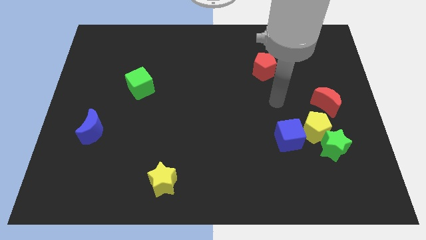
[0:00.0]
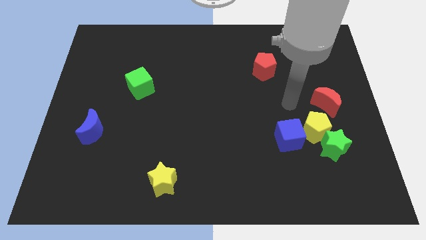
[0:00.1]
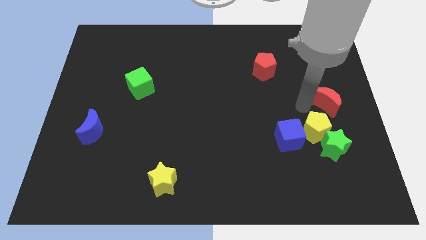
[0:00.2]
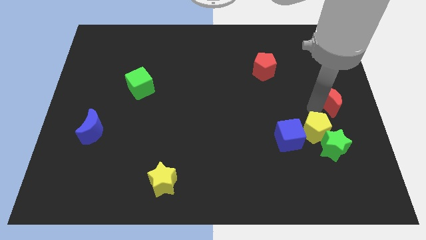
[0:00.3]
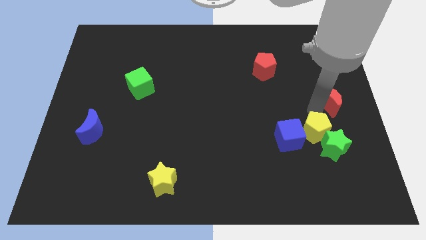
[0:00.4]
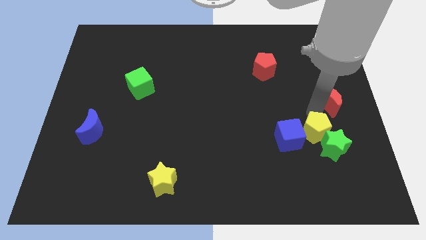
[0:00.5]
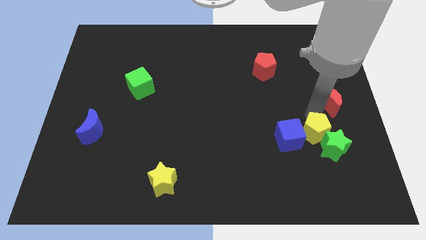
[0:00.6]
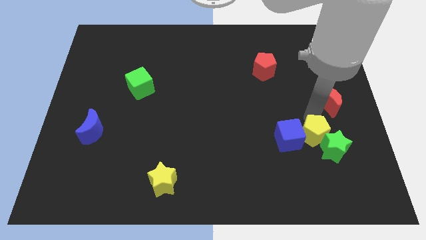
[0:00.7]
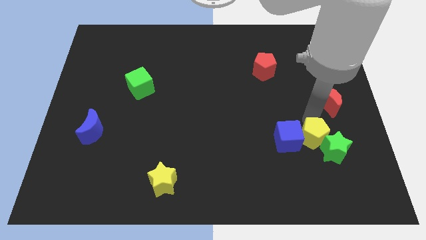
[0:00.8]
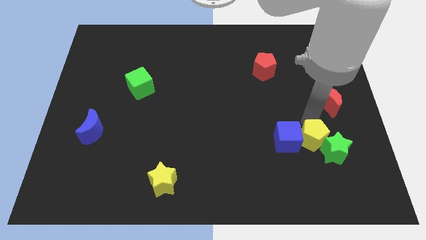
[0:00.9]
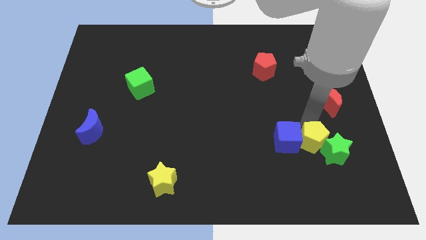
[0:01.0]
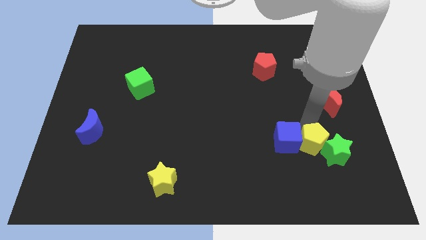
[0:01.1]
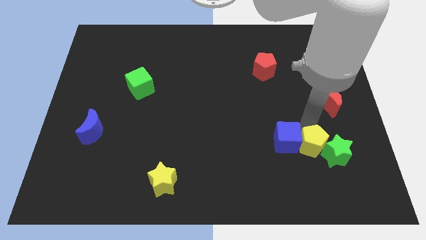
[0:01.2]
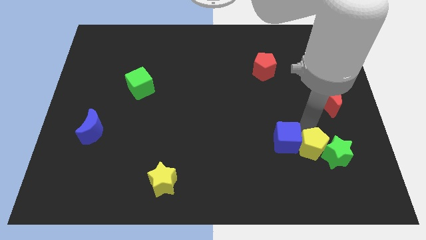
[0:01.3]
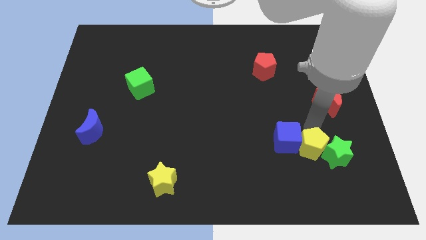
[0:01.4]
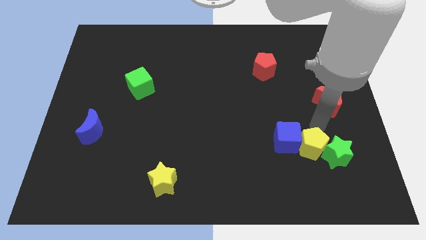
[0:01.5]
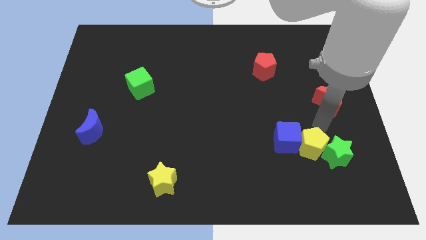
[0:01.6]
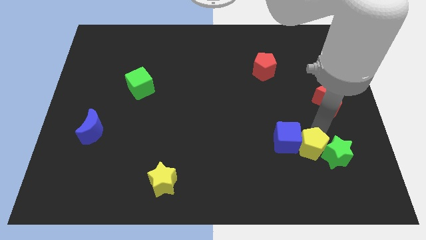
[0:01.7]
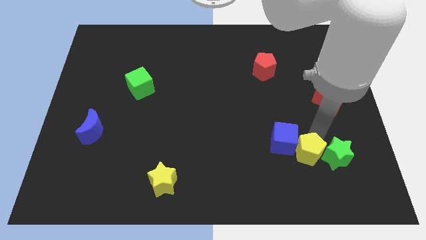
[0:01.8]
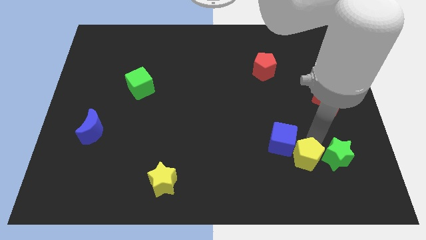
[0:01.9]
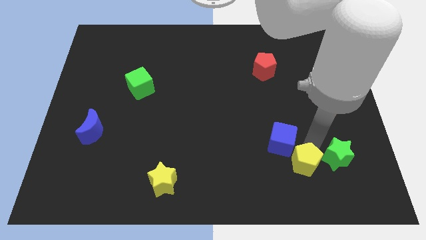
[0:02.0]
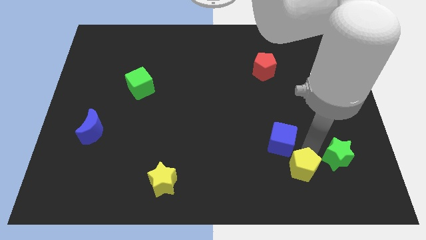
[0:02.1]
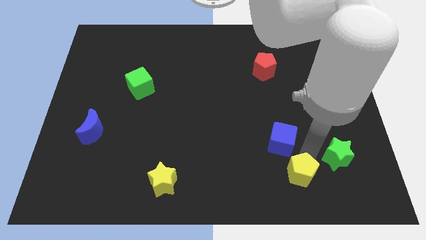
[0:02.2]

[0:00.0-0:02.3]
separate the yellow pentagon from the group

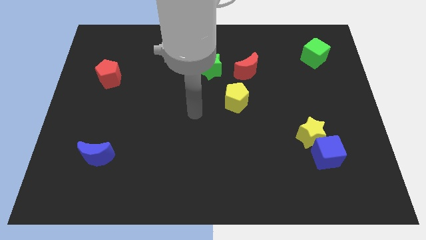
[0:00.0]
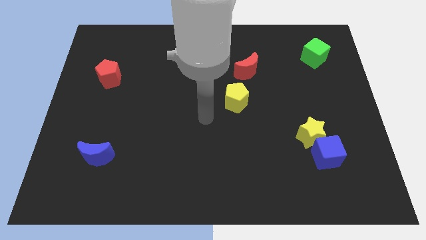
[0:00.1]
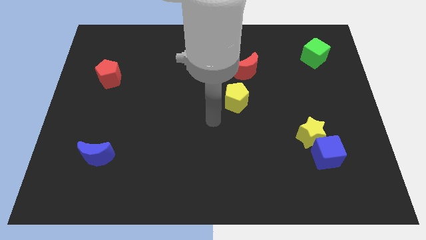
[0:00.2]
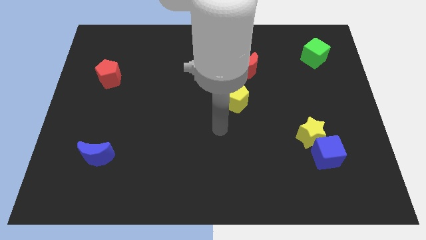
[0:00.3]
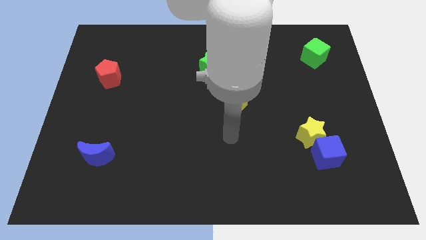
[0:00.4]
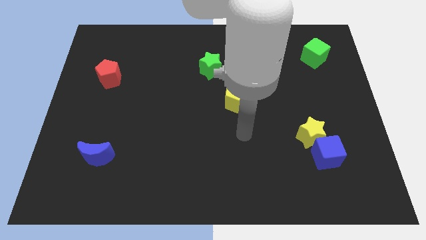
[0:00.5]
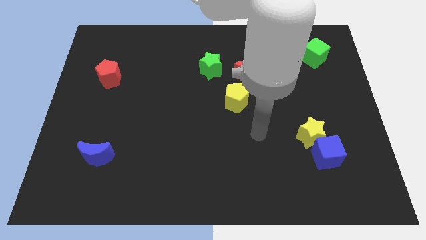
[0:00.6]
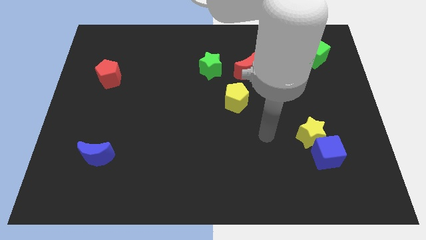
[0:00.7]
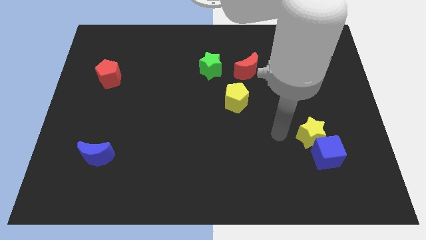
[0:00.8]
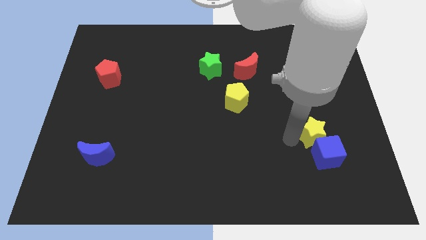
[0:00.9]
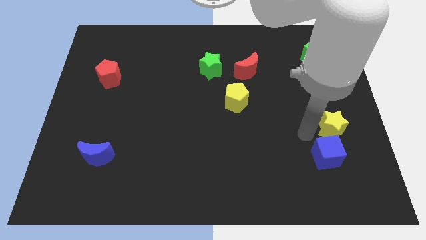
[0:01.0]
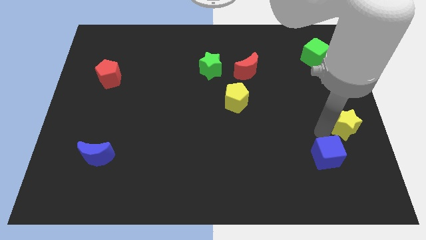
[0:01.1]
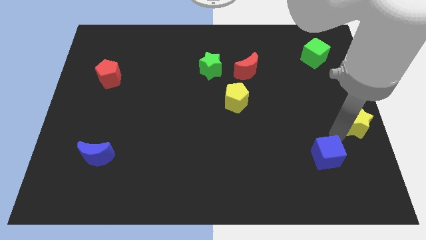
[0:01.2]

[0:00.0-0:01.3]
separate the blue cube from the yellow star

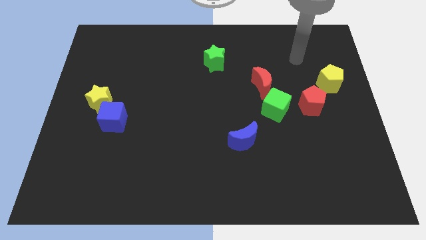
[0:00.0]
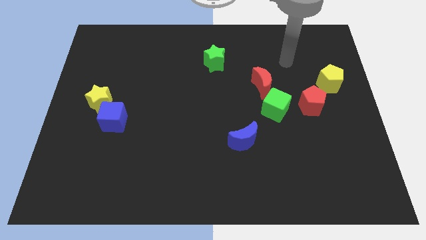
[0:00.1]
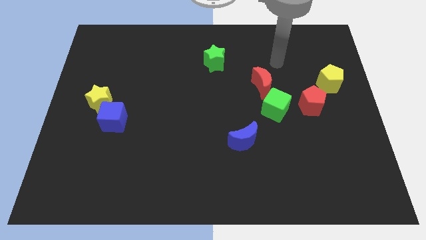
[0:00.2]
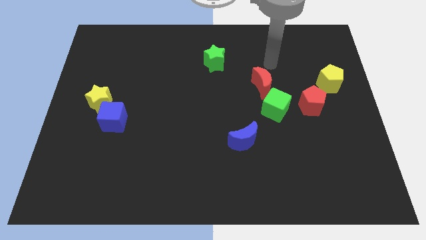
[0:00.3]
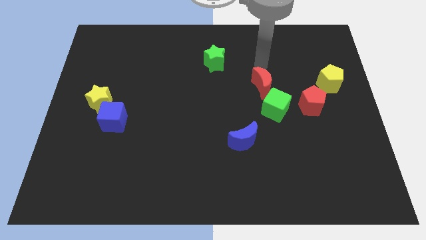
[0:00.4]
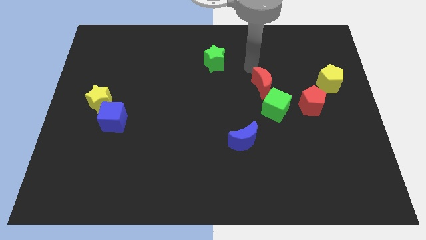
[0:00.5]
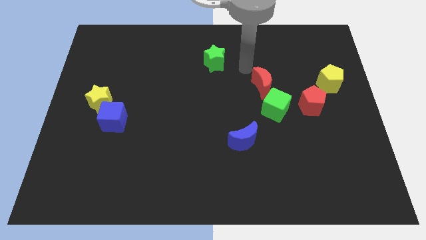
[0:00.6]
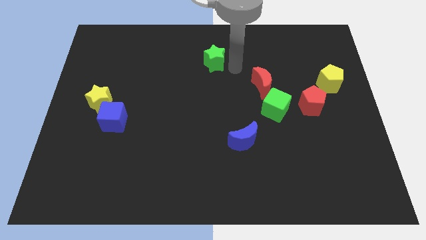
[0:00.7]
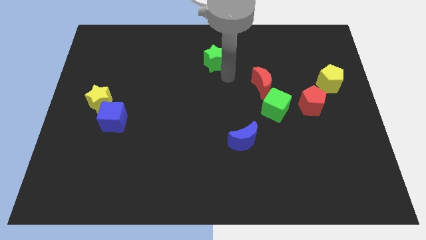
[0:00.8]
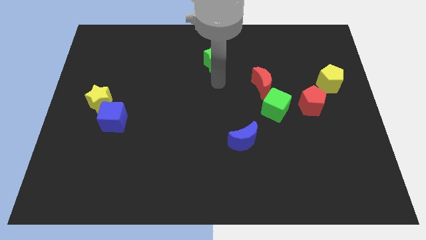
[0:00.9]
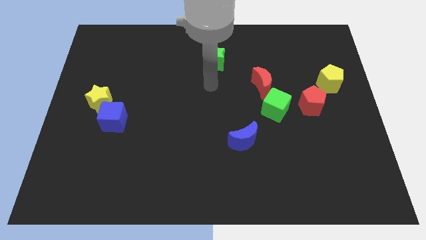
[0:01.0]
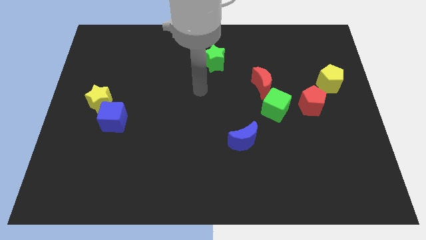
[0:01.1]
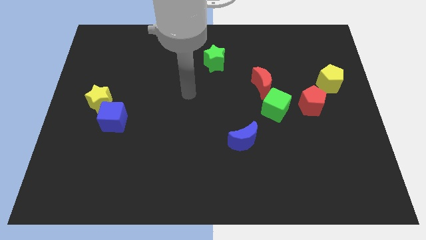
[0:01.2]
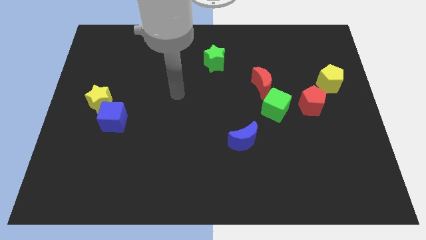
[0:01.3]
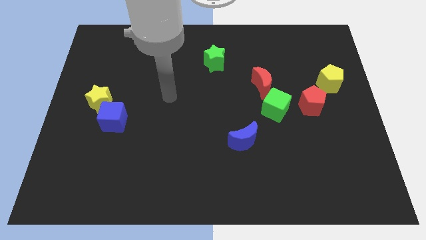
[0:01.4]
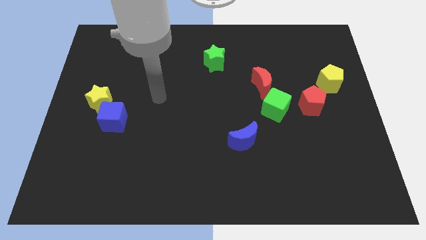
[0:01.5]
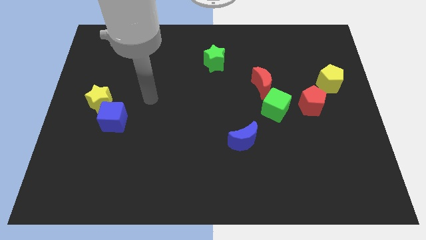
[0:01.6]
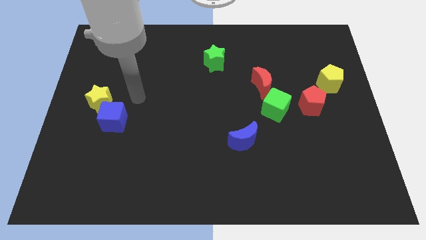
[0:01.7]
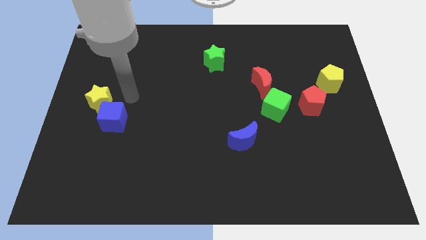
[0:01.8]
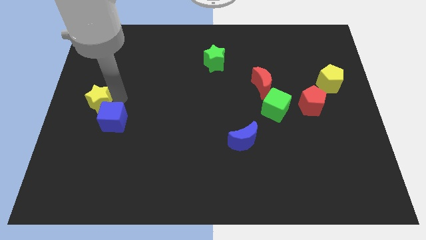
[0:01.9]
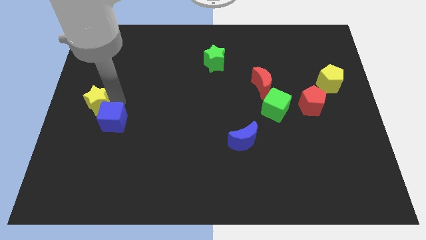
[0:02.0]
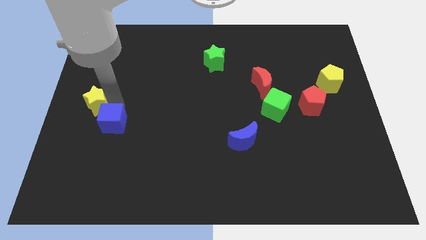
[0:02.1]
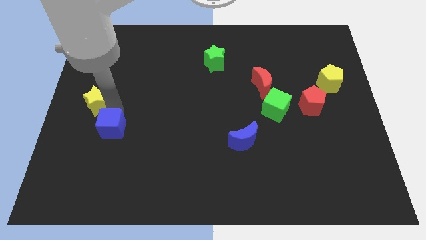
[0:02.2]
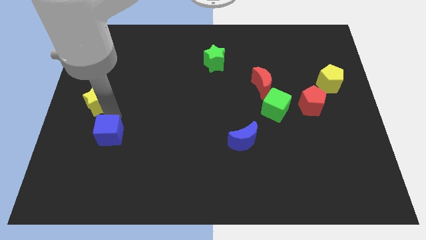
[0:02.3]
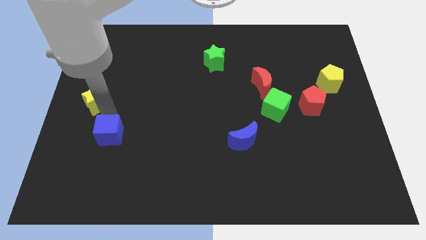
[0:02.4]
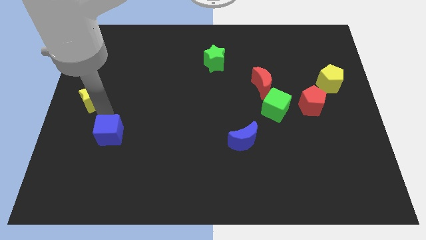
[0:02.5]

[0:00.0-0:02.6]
pull the blue cube apart from the yellow star

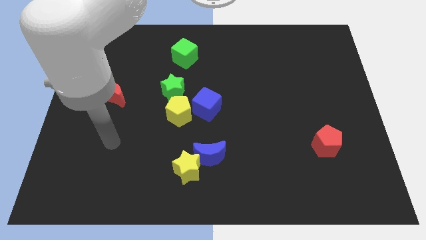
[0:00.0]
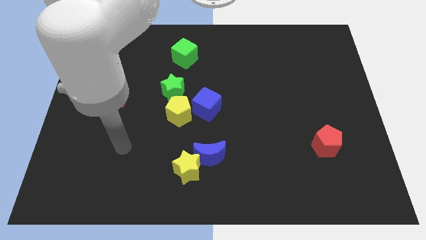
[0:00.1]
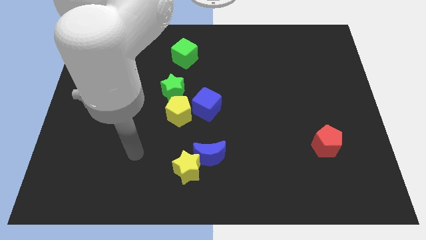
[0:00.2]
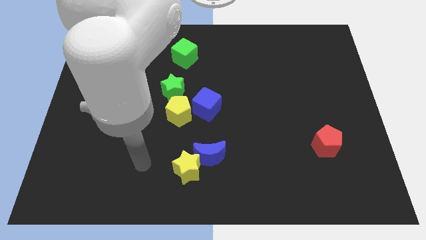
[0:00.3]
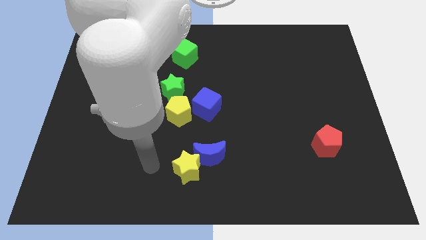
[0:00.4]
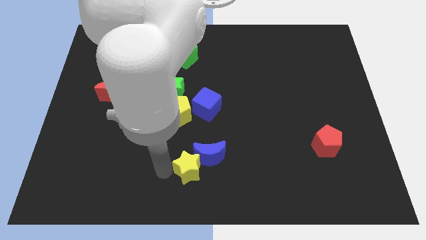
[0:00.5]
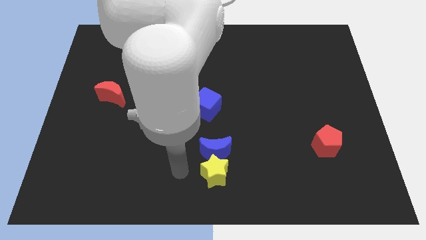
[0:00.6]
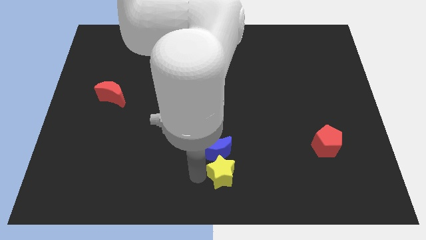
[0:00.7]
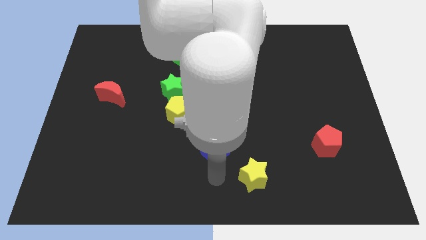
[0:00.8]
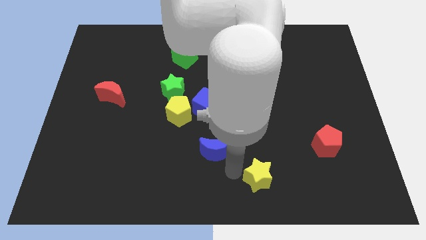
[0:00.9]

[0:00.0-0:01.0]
pull the blue moon apart from the yellow star

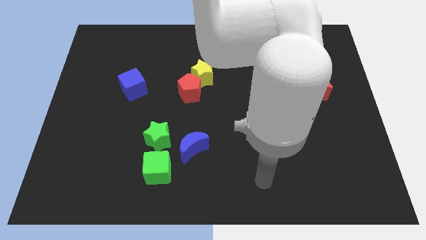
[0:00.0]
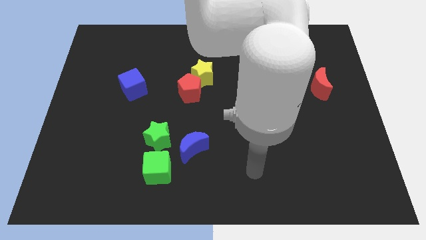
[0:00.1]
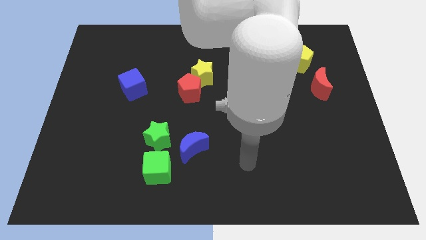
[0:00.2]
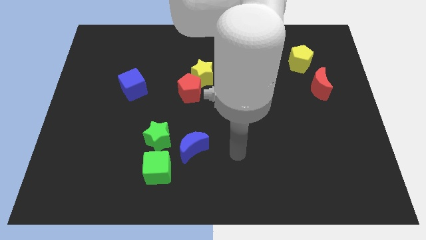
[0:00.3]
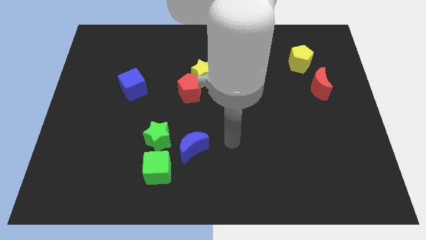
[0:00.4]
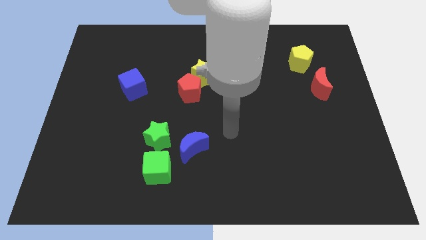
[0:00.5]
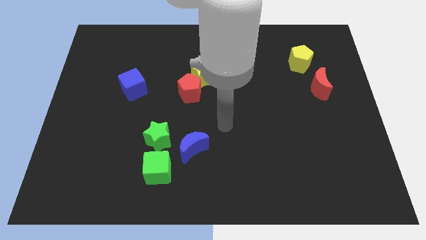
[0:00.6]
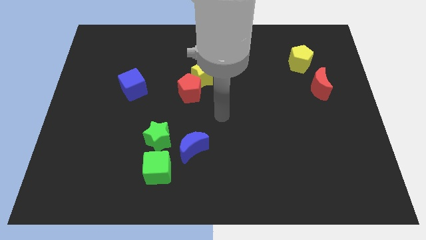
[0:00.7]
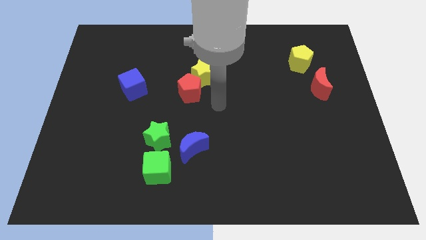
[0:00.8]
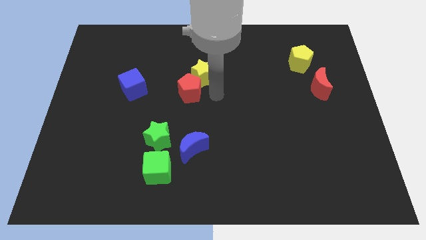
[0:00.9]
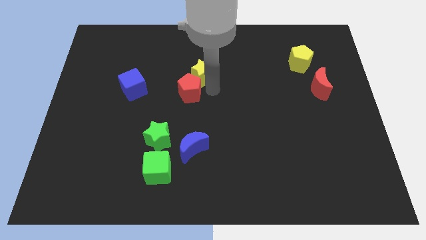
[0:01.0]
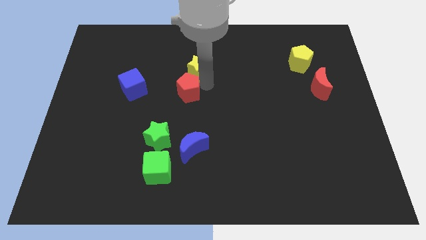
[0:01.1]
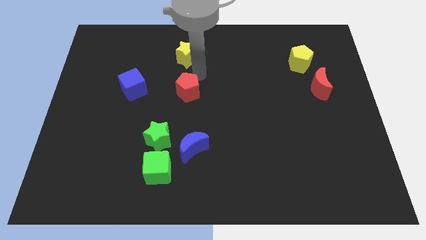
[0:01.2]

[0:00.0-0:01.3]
separate the red pentagon from the yellow star

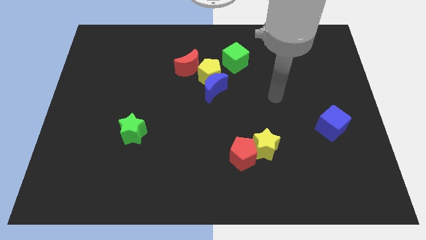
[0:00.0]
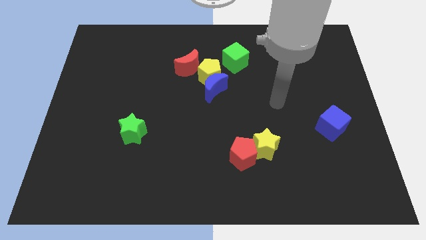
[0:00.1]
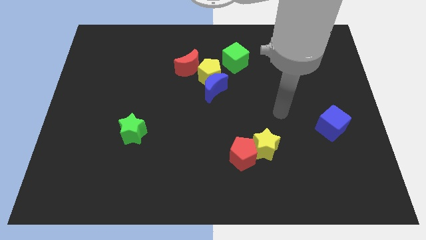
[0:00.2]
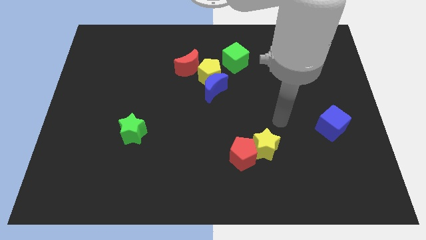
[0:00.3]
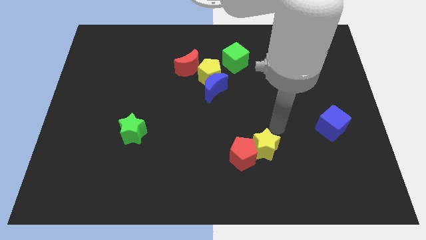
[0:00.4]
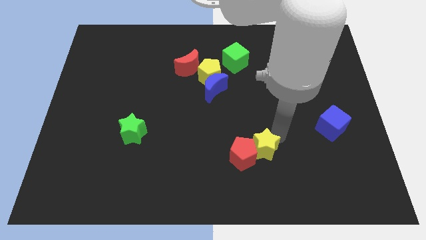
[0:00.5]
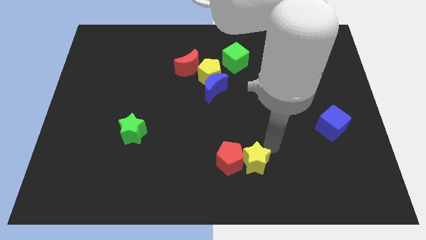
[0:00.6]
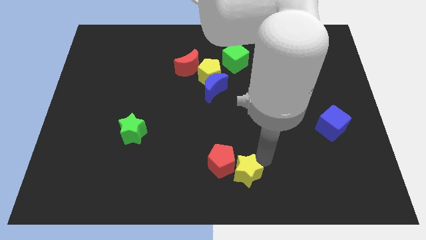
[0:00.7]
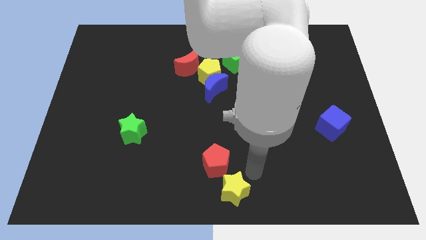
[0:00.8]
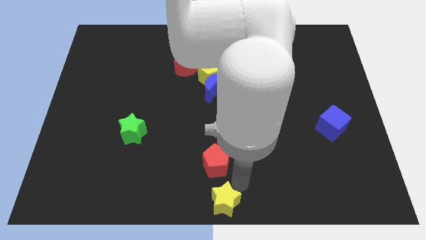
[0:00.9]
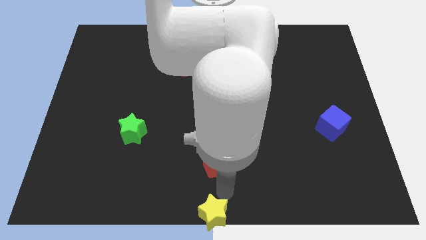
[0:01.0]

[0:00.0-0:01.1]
pull the red pentagon apart from the yellow star
